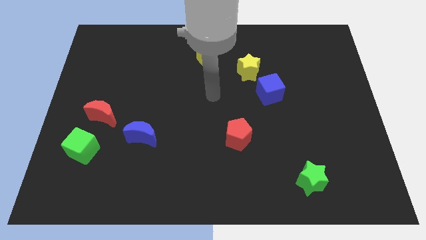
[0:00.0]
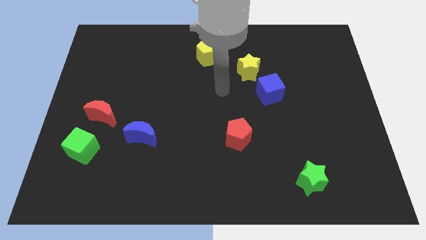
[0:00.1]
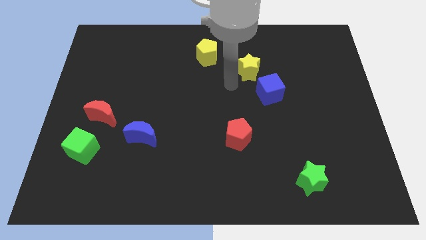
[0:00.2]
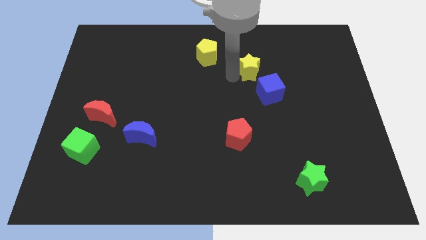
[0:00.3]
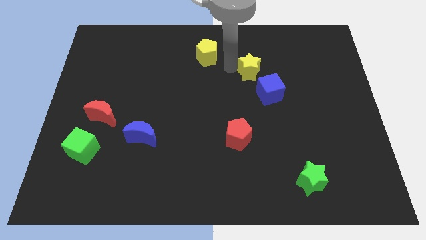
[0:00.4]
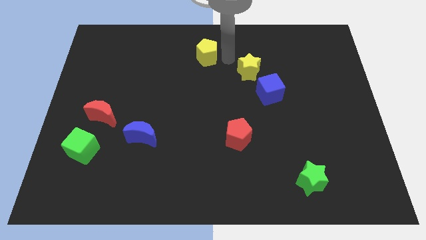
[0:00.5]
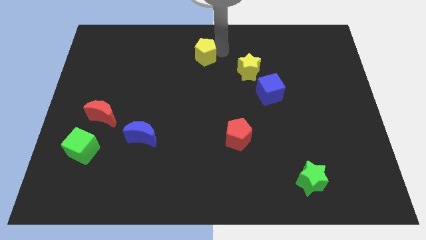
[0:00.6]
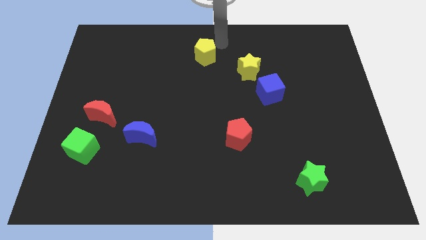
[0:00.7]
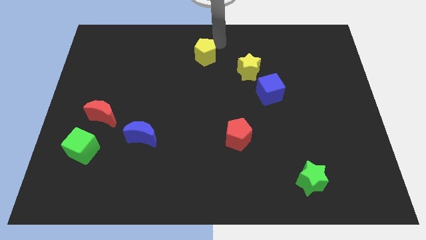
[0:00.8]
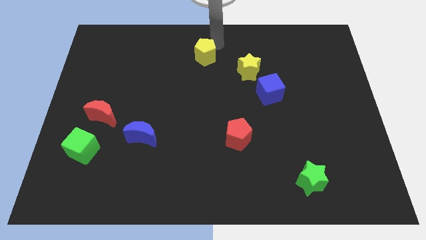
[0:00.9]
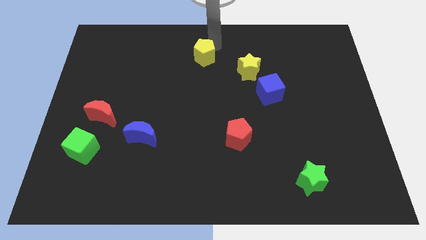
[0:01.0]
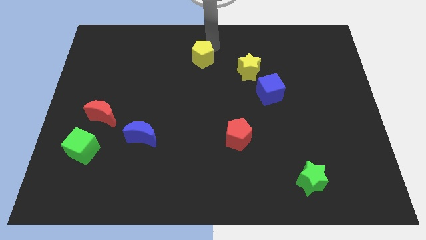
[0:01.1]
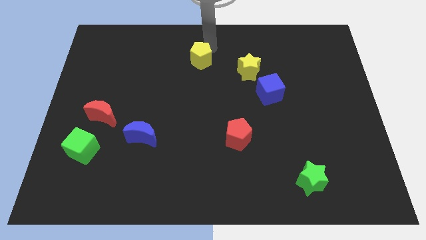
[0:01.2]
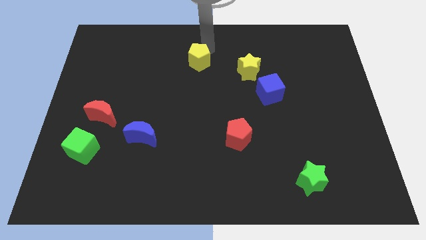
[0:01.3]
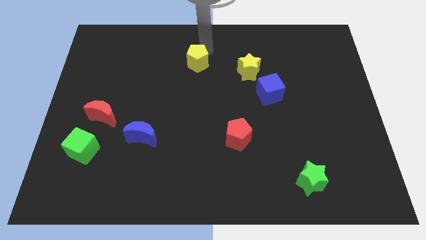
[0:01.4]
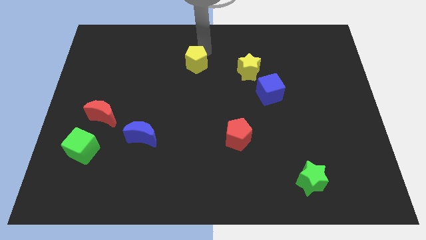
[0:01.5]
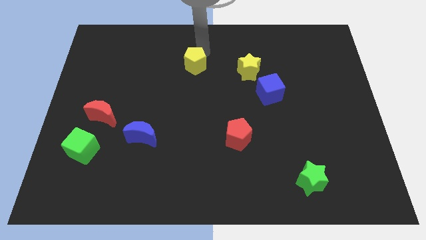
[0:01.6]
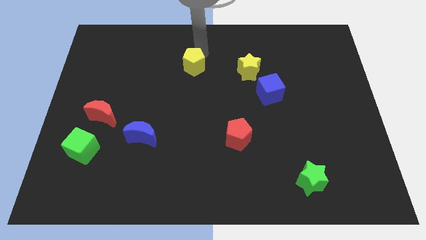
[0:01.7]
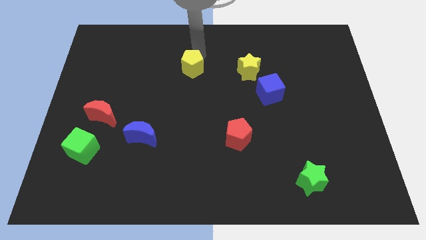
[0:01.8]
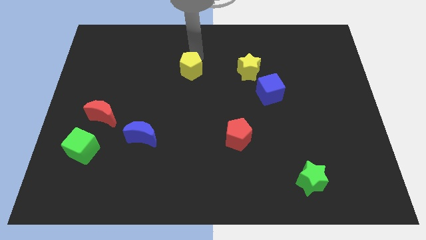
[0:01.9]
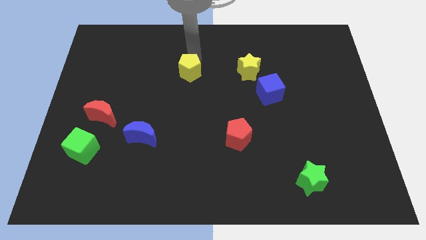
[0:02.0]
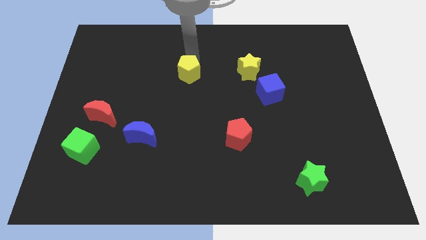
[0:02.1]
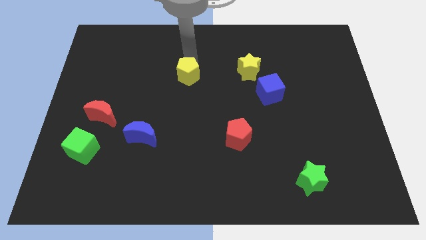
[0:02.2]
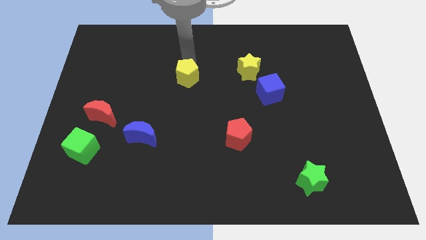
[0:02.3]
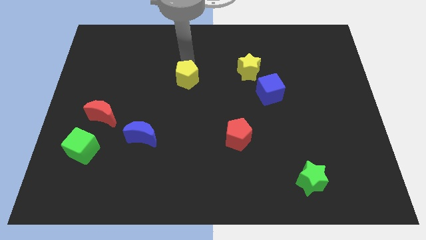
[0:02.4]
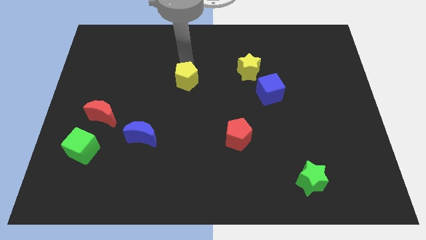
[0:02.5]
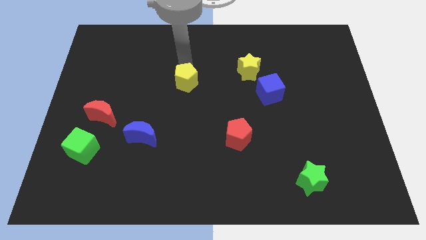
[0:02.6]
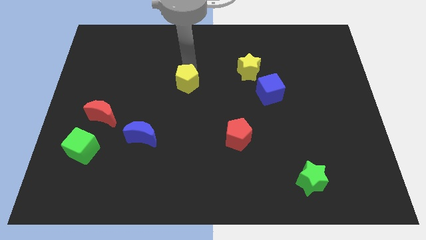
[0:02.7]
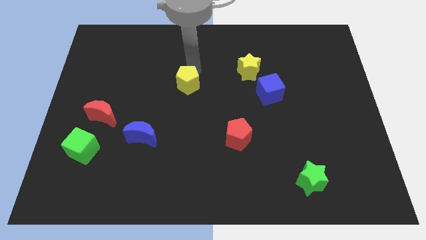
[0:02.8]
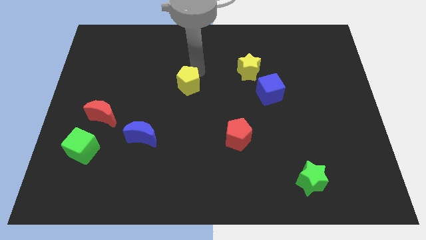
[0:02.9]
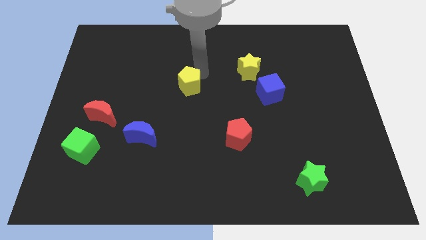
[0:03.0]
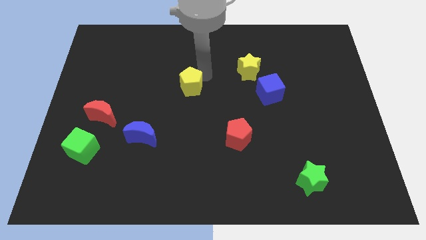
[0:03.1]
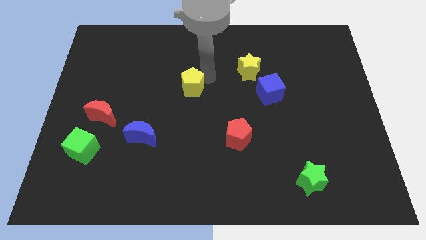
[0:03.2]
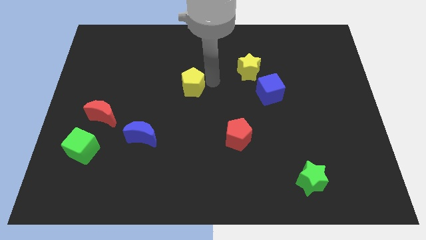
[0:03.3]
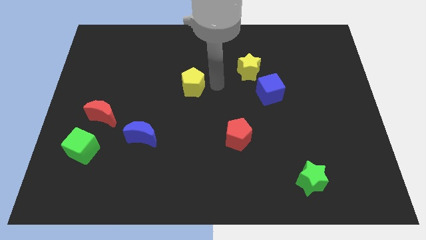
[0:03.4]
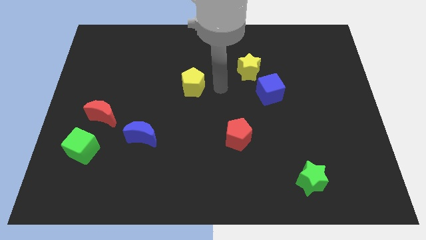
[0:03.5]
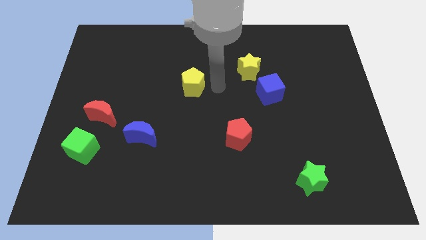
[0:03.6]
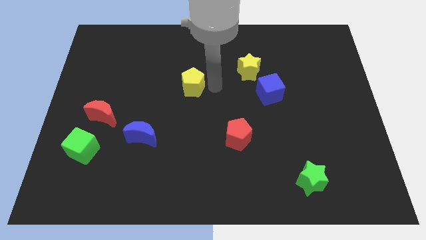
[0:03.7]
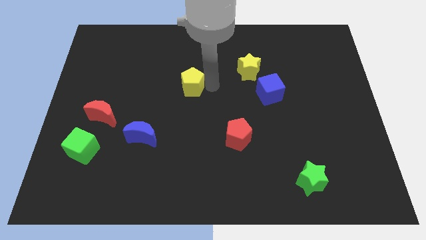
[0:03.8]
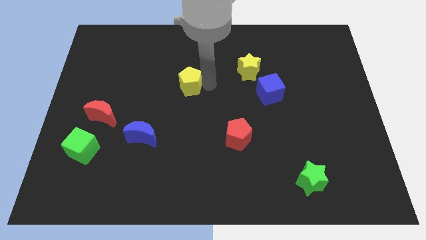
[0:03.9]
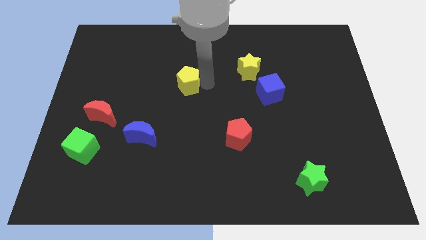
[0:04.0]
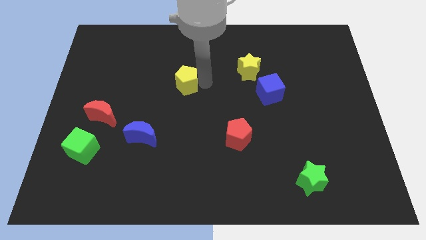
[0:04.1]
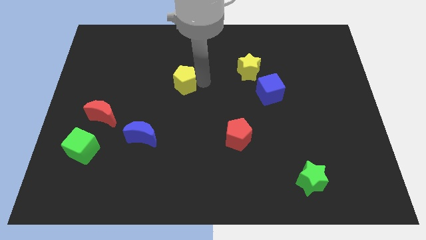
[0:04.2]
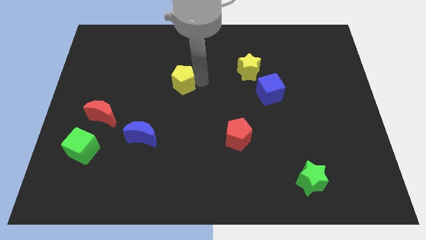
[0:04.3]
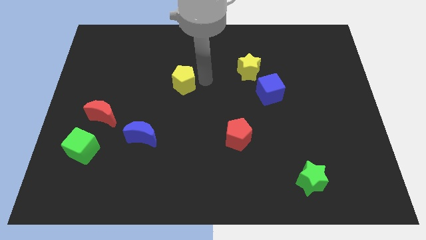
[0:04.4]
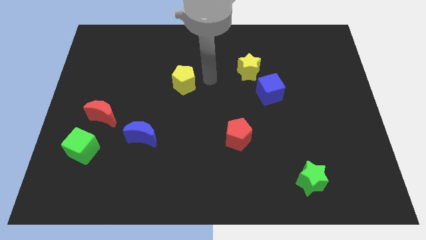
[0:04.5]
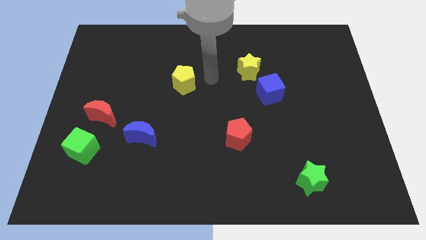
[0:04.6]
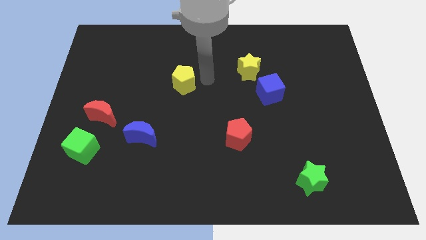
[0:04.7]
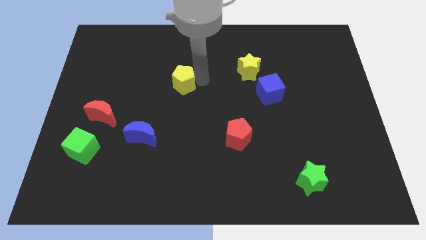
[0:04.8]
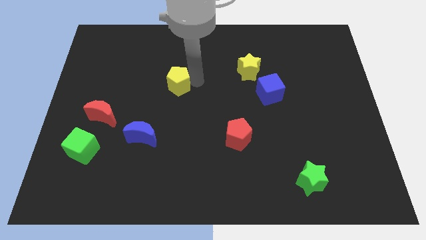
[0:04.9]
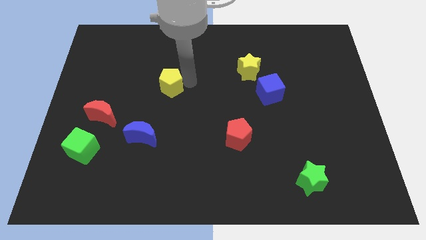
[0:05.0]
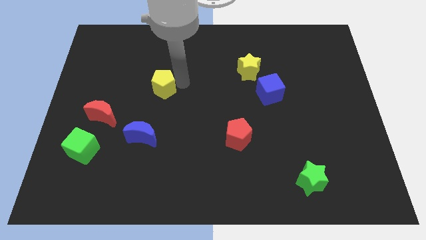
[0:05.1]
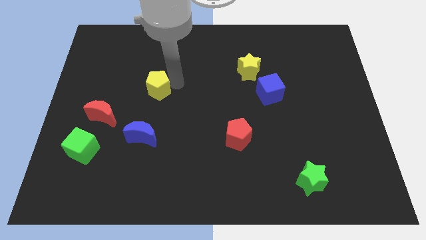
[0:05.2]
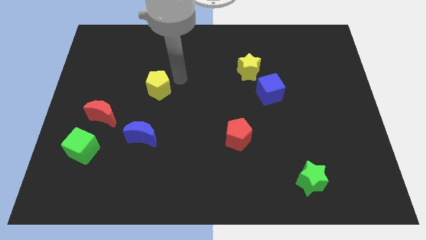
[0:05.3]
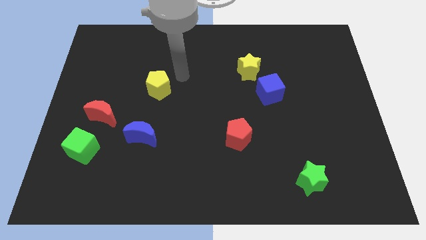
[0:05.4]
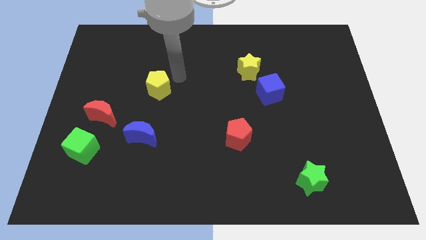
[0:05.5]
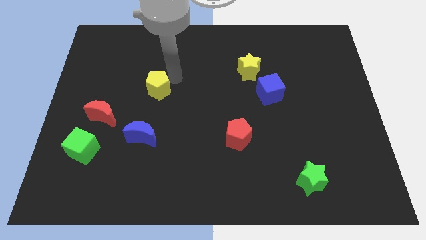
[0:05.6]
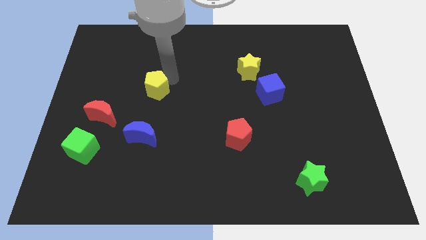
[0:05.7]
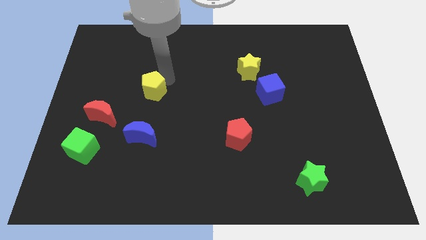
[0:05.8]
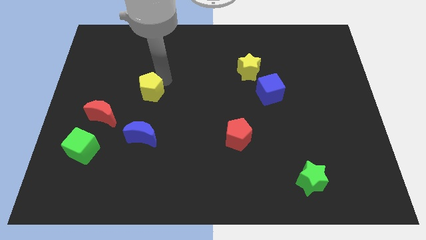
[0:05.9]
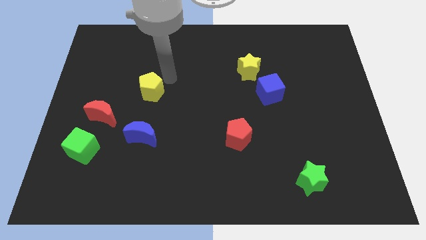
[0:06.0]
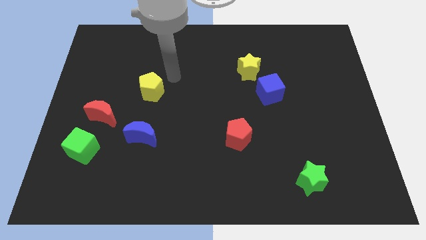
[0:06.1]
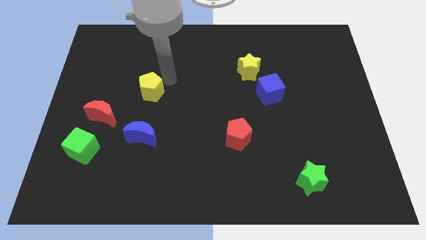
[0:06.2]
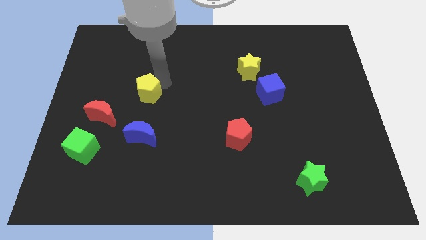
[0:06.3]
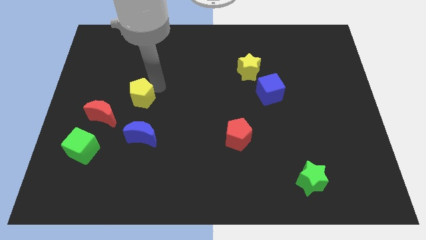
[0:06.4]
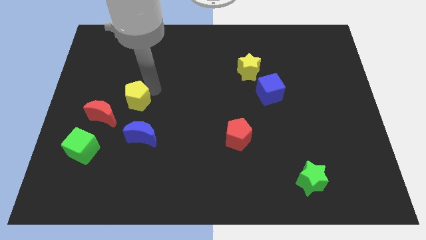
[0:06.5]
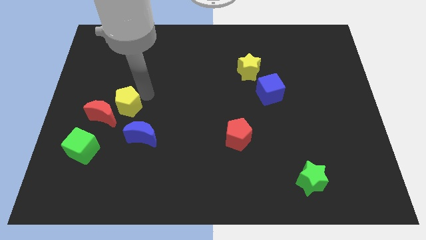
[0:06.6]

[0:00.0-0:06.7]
move the yellow pentagon next to the red moon
